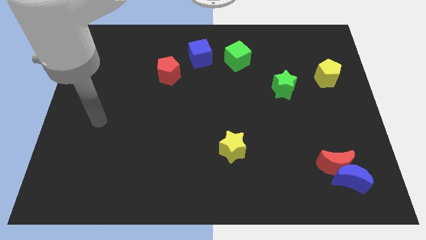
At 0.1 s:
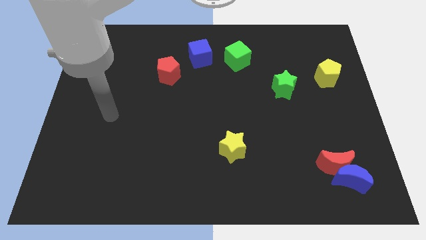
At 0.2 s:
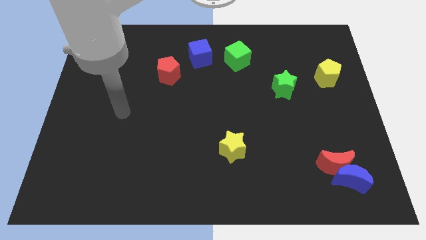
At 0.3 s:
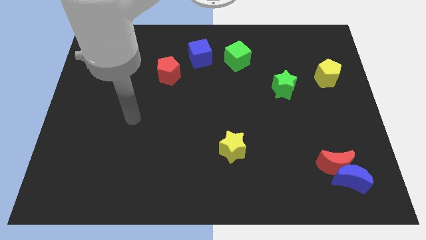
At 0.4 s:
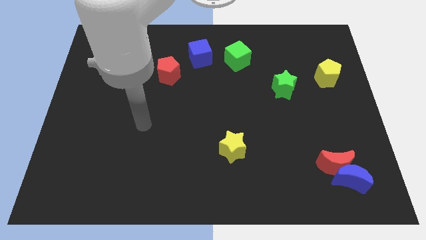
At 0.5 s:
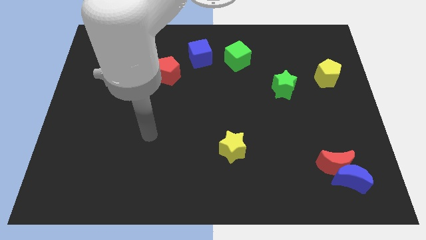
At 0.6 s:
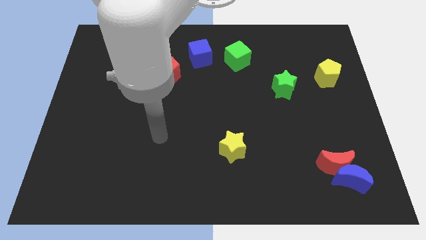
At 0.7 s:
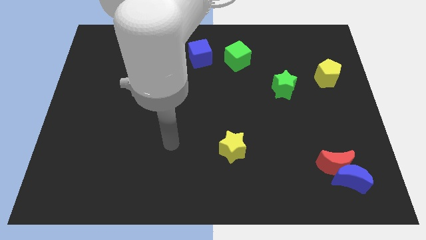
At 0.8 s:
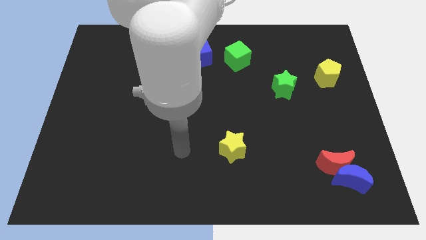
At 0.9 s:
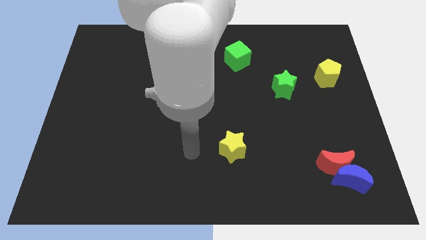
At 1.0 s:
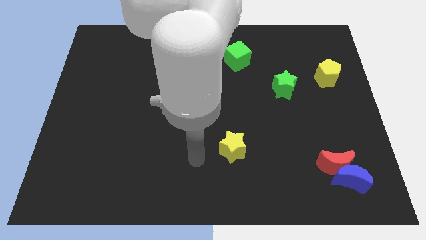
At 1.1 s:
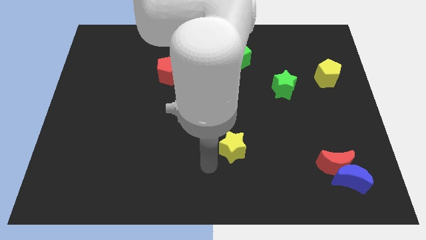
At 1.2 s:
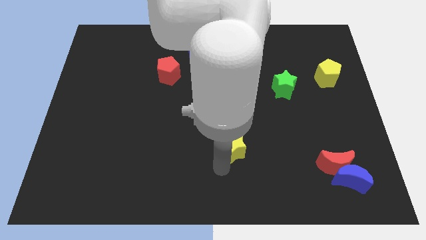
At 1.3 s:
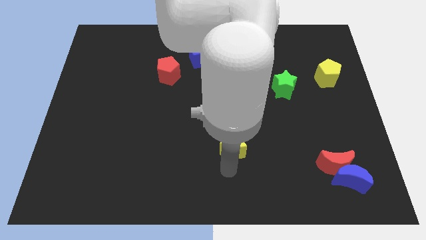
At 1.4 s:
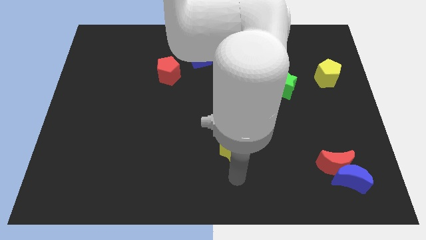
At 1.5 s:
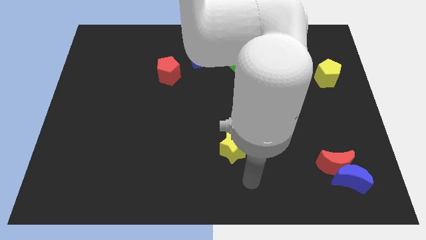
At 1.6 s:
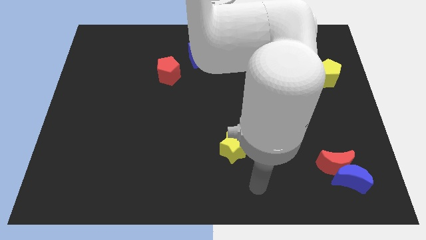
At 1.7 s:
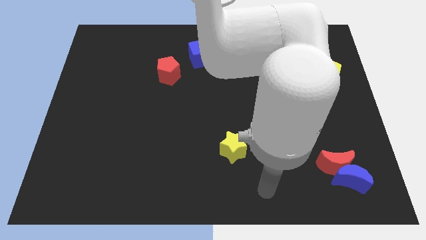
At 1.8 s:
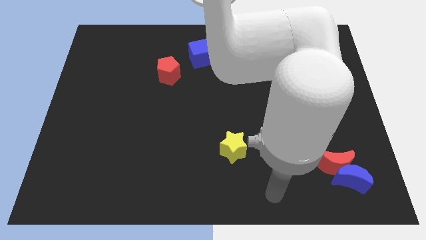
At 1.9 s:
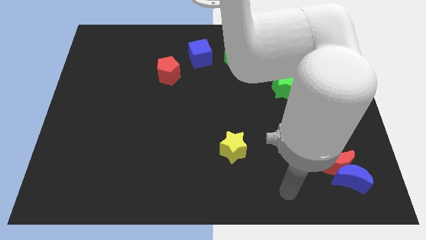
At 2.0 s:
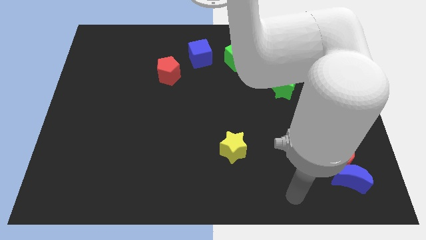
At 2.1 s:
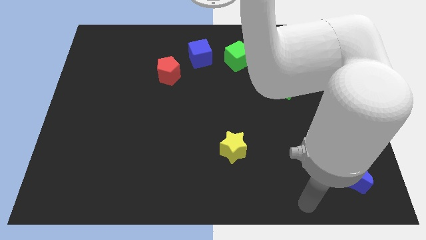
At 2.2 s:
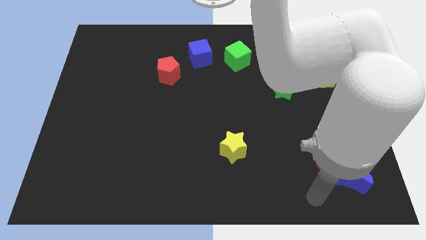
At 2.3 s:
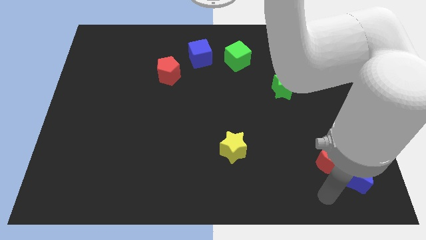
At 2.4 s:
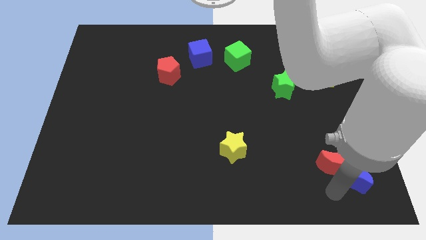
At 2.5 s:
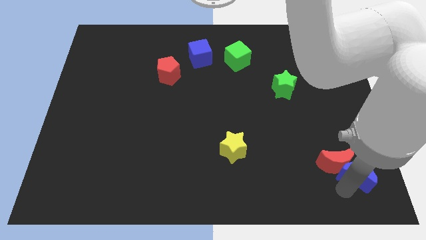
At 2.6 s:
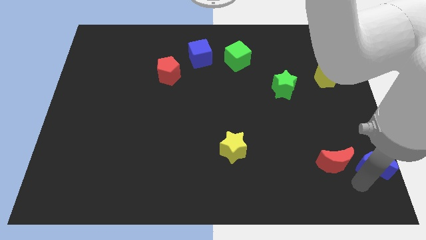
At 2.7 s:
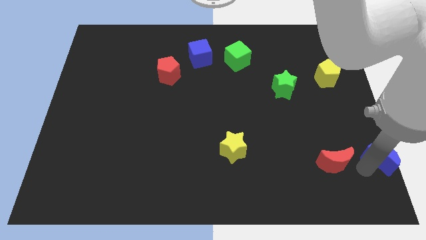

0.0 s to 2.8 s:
move the red moon away from the blue moon

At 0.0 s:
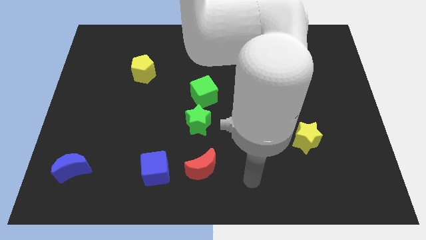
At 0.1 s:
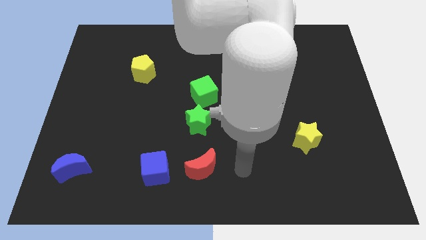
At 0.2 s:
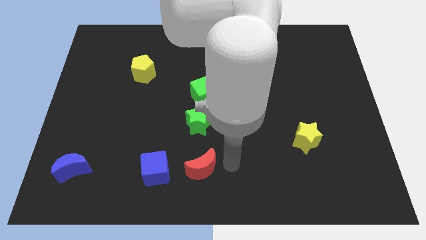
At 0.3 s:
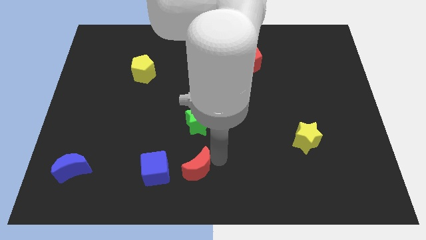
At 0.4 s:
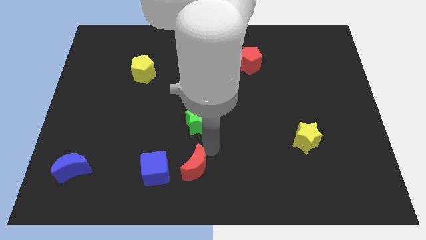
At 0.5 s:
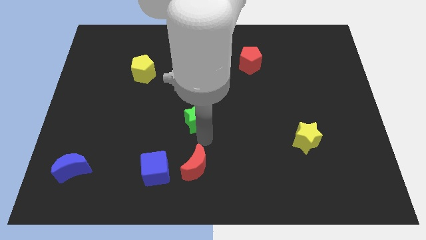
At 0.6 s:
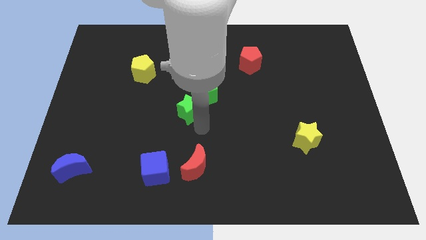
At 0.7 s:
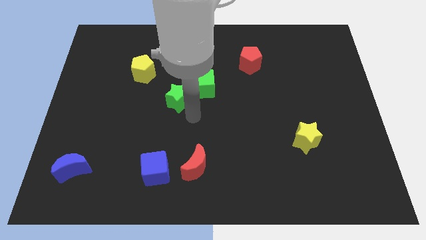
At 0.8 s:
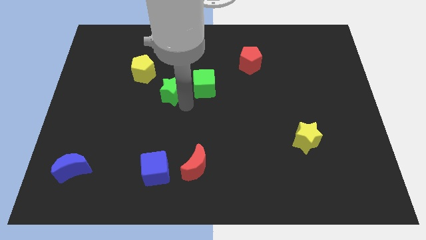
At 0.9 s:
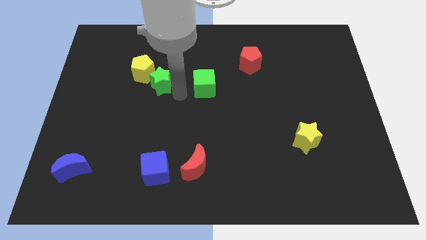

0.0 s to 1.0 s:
pull the green cube apart from the green star

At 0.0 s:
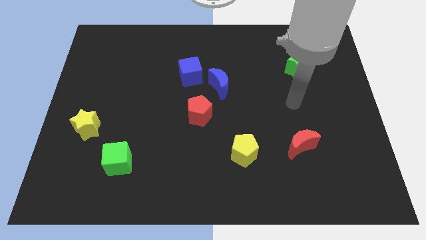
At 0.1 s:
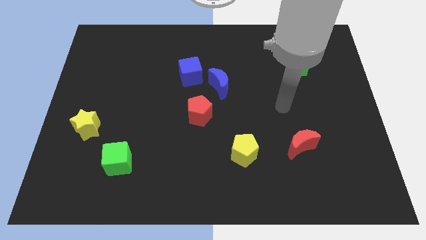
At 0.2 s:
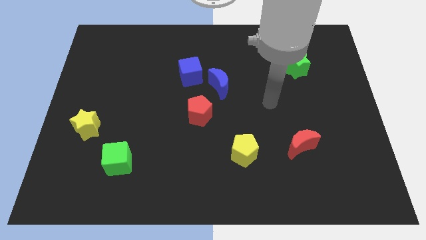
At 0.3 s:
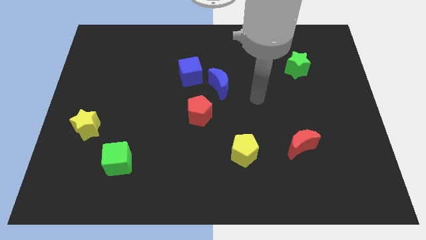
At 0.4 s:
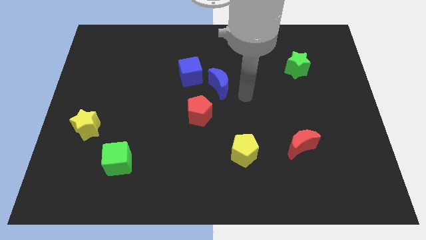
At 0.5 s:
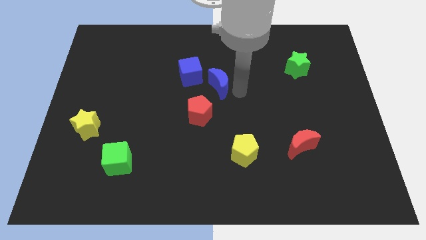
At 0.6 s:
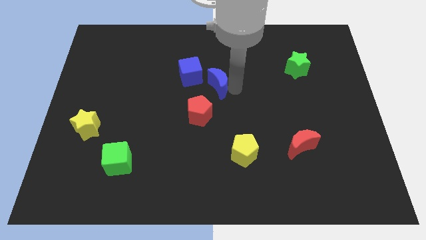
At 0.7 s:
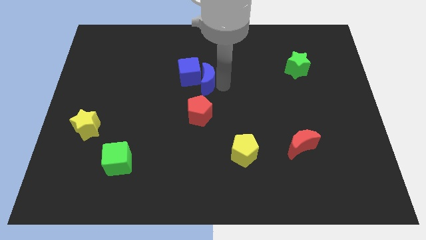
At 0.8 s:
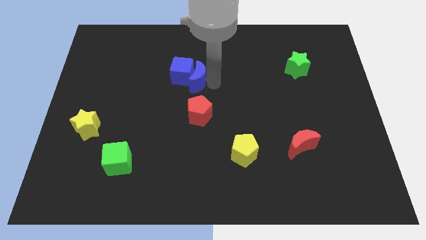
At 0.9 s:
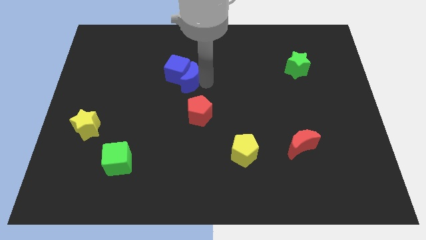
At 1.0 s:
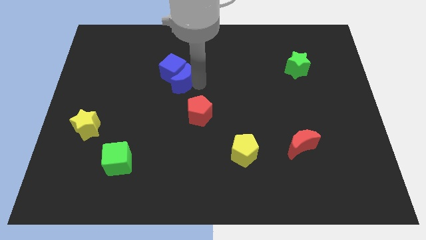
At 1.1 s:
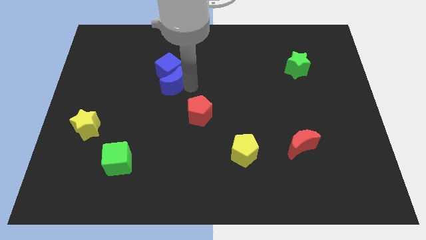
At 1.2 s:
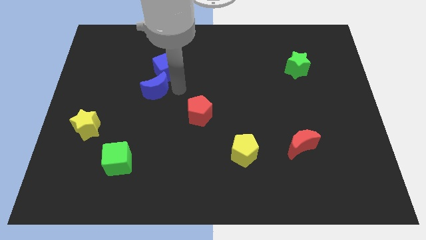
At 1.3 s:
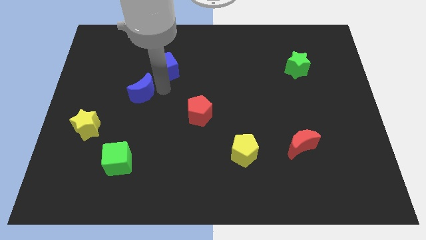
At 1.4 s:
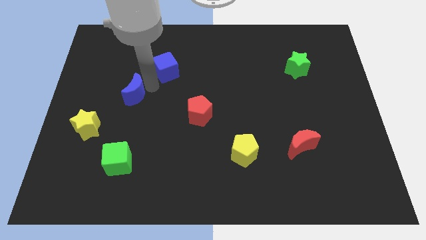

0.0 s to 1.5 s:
separate the blue cube from the blue moon

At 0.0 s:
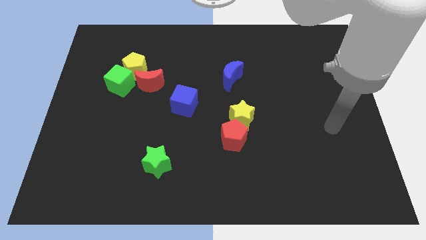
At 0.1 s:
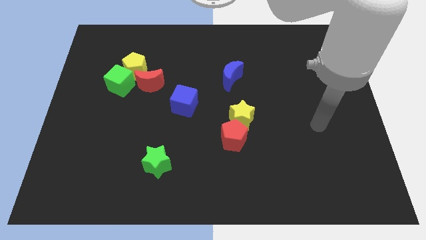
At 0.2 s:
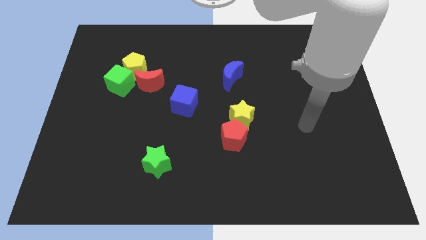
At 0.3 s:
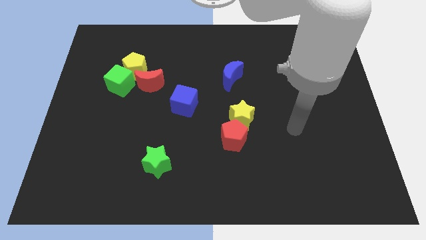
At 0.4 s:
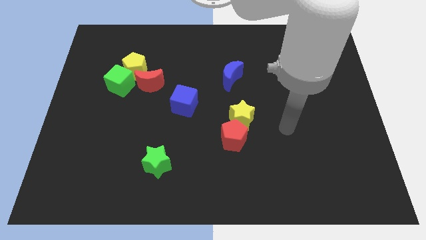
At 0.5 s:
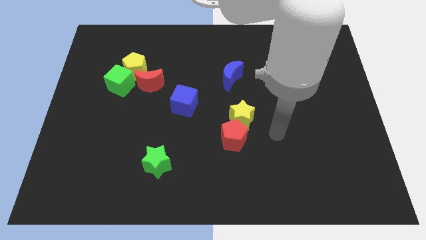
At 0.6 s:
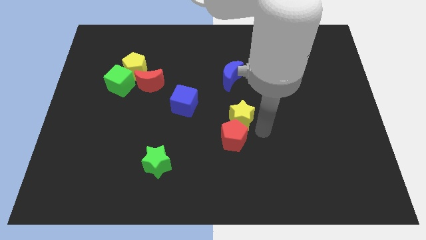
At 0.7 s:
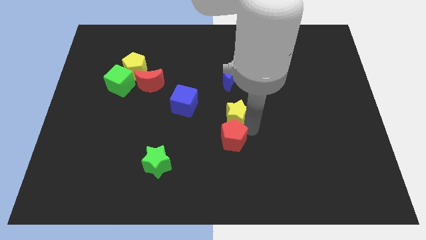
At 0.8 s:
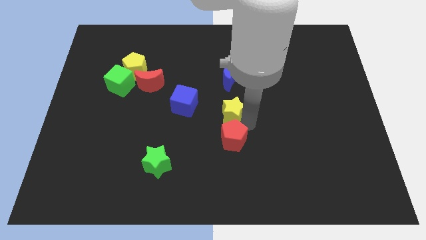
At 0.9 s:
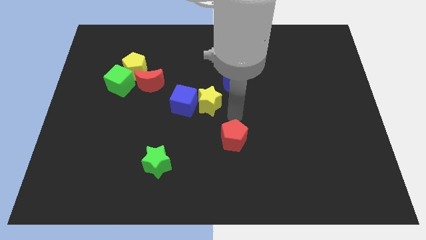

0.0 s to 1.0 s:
separate the red pentagon from the yellow star

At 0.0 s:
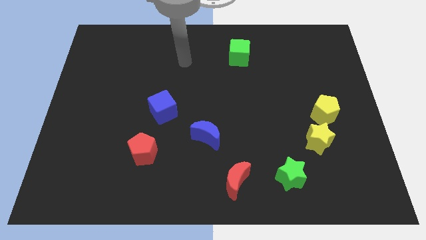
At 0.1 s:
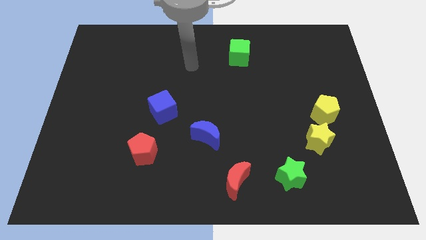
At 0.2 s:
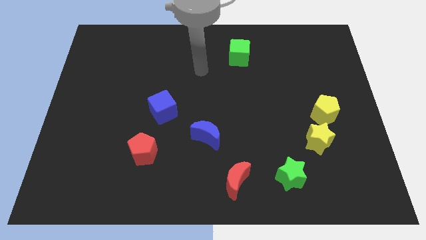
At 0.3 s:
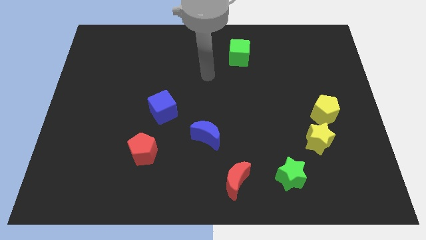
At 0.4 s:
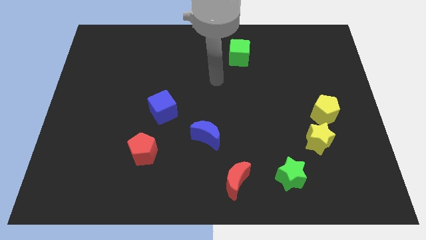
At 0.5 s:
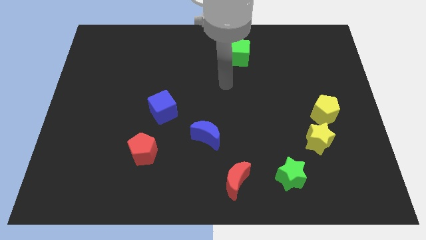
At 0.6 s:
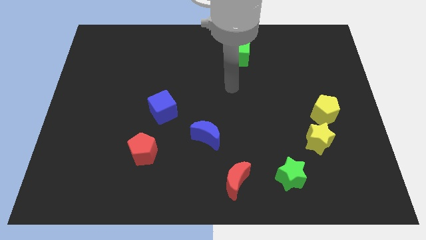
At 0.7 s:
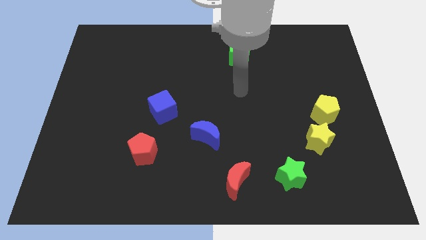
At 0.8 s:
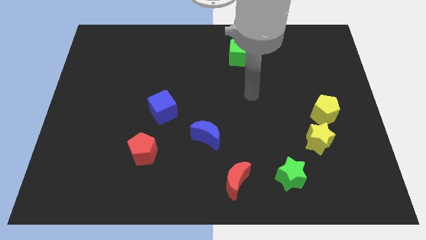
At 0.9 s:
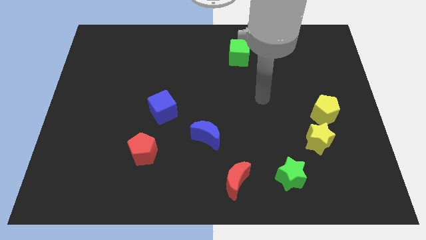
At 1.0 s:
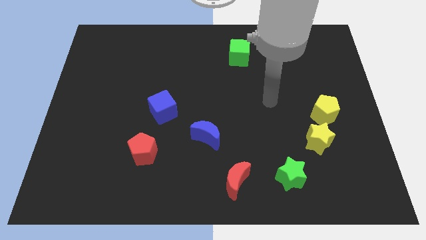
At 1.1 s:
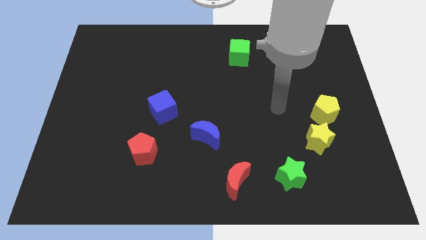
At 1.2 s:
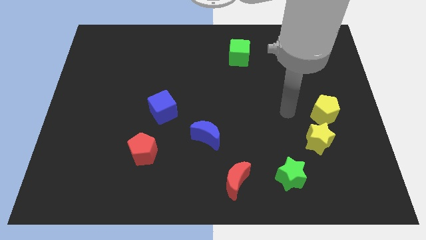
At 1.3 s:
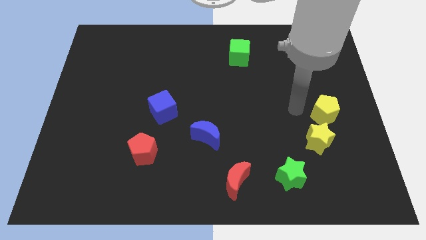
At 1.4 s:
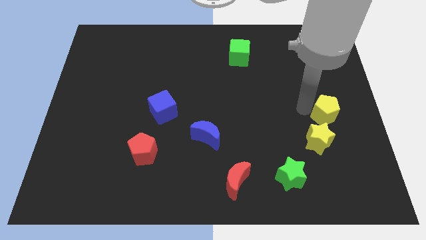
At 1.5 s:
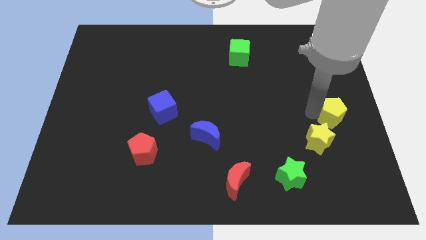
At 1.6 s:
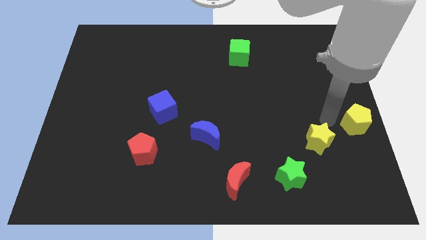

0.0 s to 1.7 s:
separate the yellow star from the yellow pentagon

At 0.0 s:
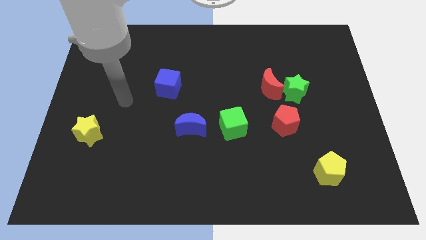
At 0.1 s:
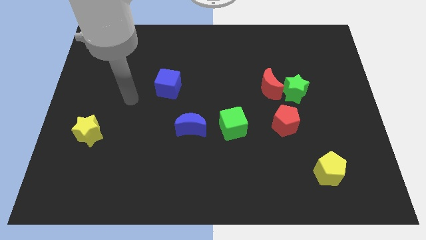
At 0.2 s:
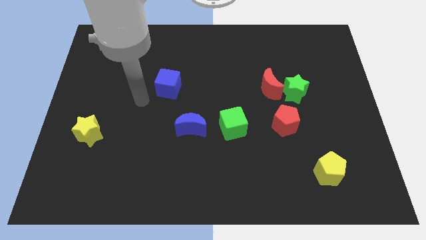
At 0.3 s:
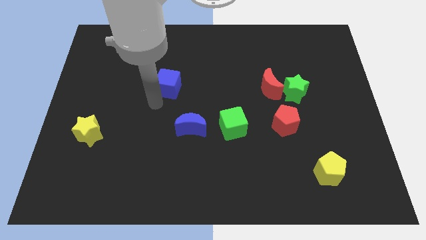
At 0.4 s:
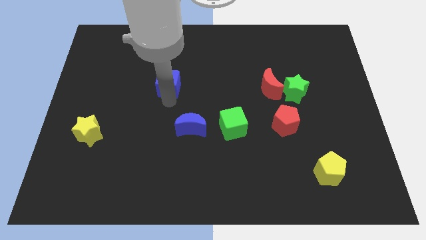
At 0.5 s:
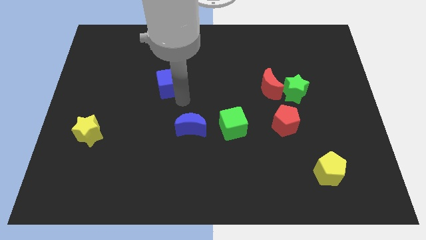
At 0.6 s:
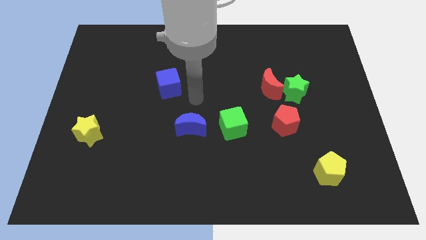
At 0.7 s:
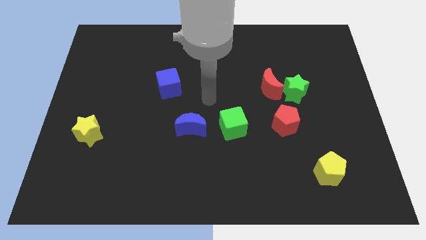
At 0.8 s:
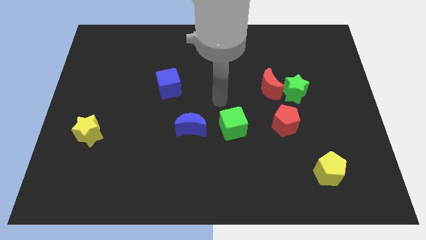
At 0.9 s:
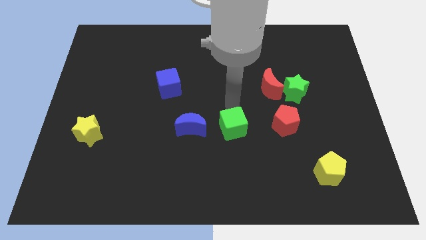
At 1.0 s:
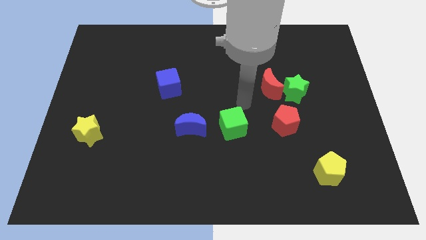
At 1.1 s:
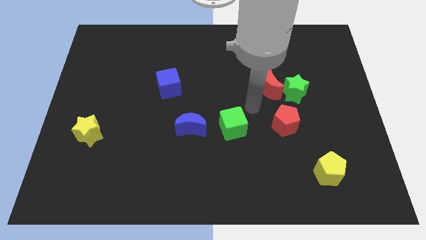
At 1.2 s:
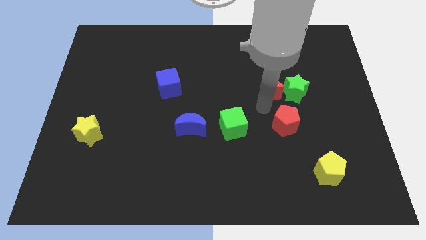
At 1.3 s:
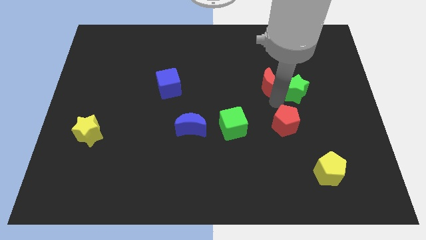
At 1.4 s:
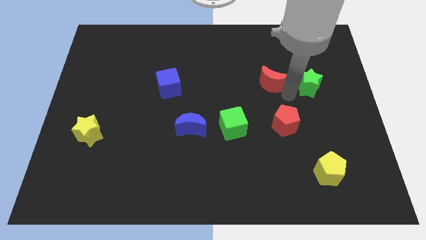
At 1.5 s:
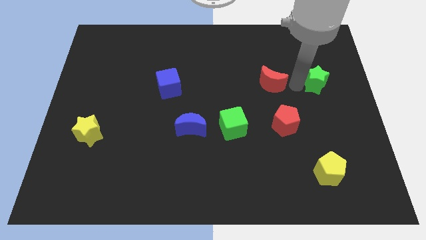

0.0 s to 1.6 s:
separate the red moon from the green star
